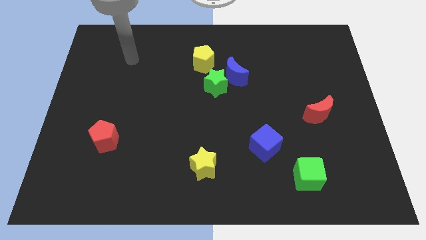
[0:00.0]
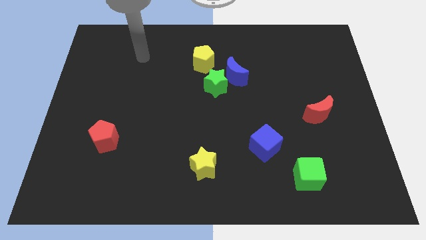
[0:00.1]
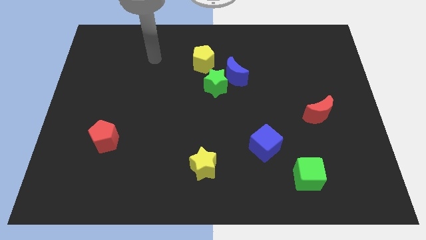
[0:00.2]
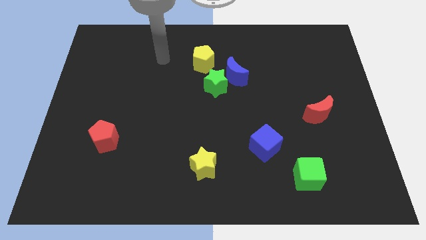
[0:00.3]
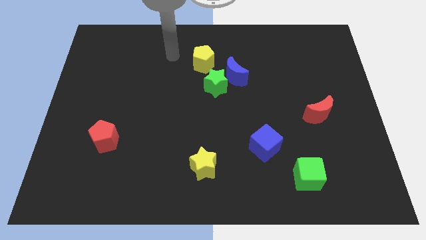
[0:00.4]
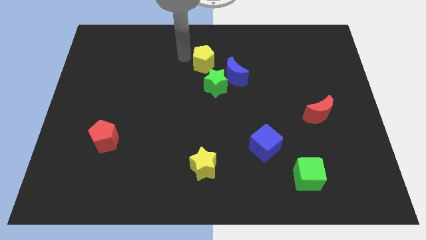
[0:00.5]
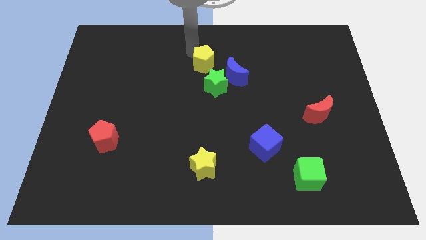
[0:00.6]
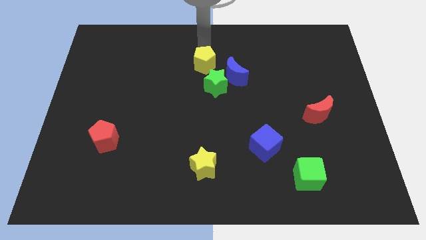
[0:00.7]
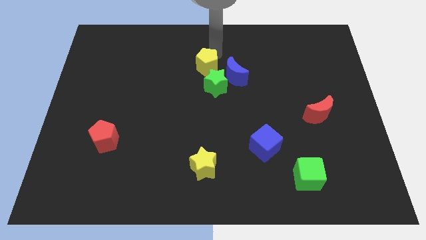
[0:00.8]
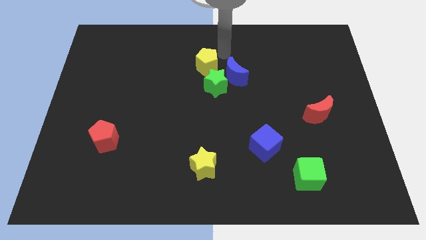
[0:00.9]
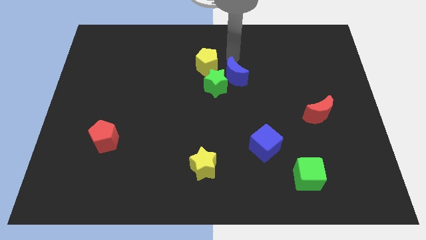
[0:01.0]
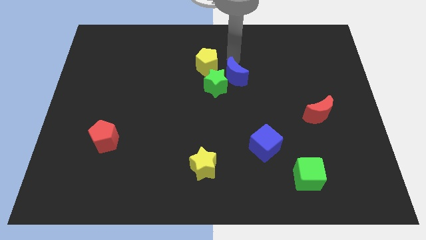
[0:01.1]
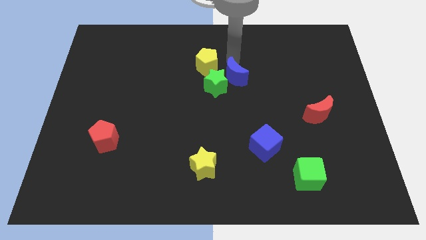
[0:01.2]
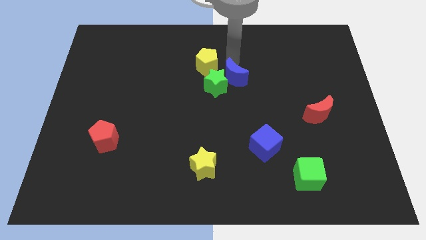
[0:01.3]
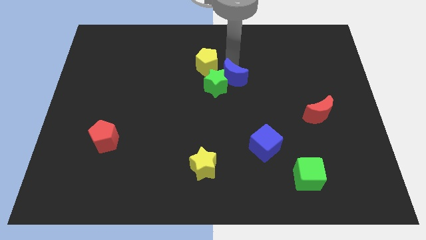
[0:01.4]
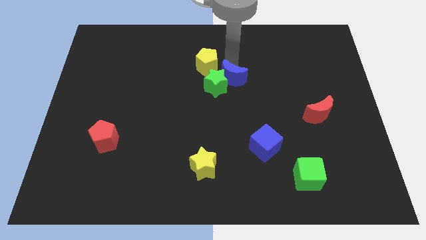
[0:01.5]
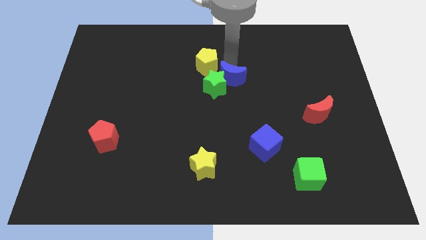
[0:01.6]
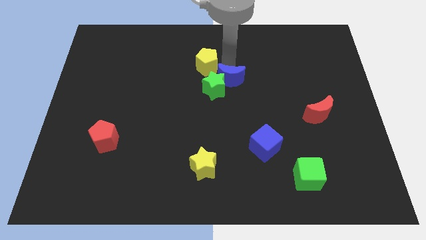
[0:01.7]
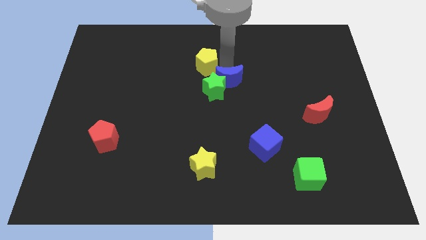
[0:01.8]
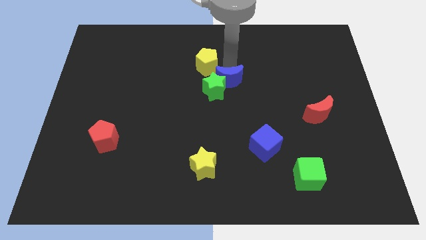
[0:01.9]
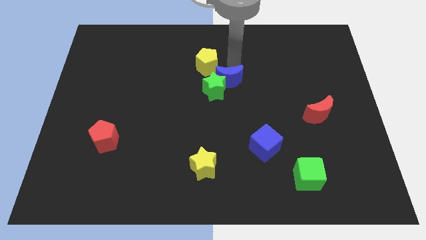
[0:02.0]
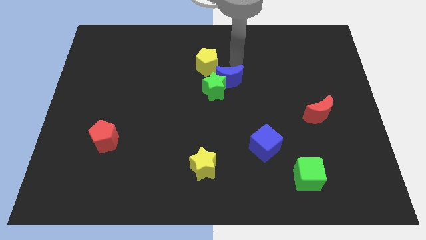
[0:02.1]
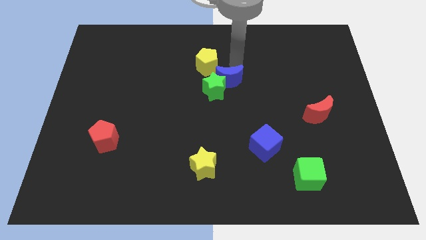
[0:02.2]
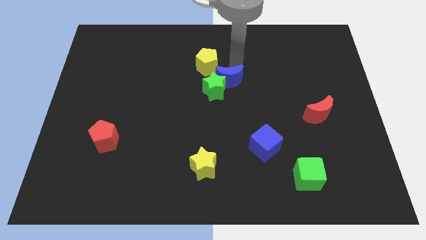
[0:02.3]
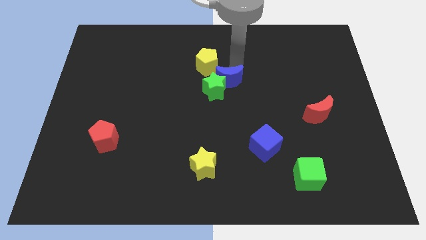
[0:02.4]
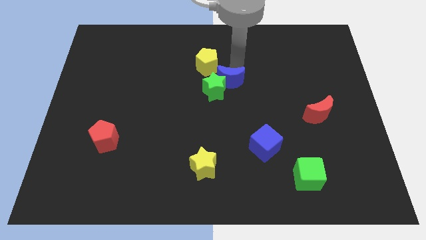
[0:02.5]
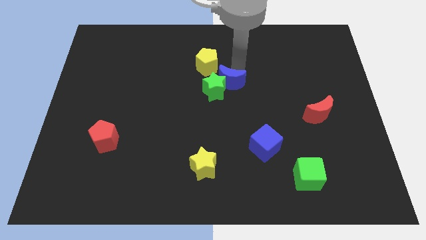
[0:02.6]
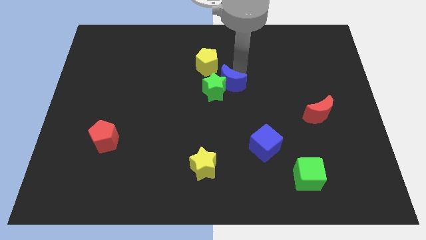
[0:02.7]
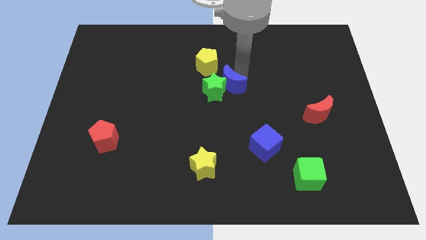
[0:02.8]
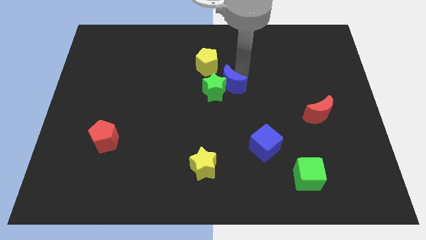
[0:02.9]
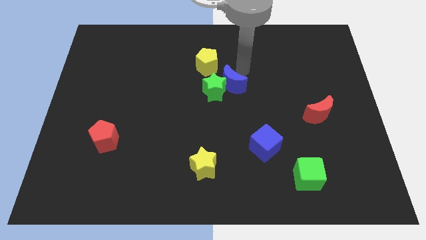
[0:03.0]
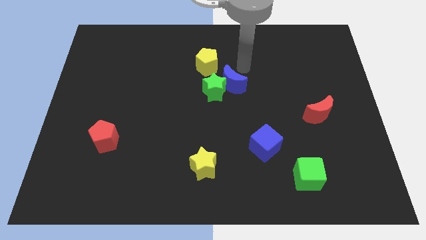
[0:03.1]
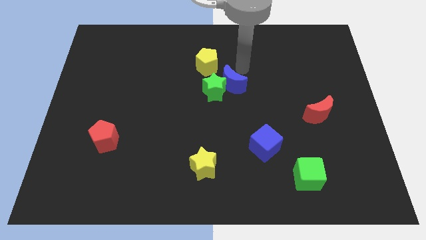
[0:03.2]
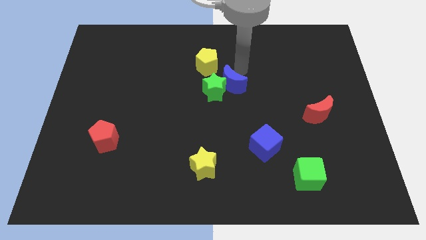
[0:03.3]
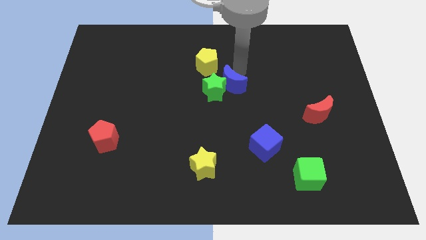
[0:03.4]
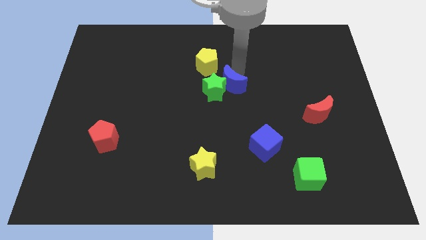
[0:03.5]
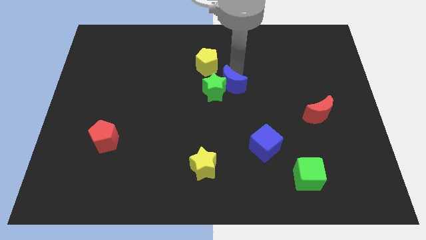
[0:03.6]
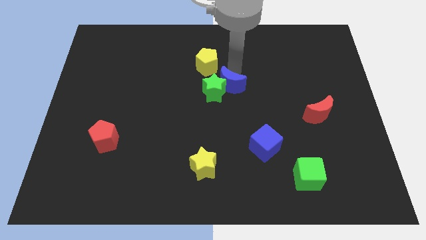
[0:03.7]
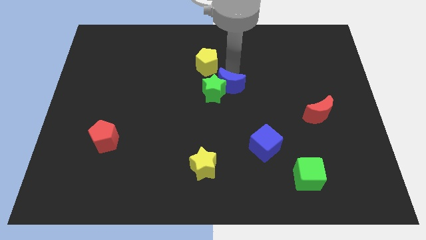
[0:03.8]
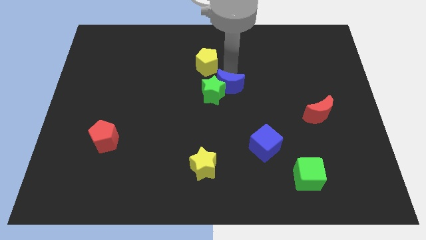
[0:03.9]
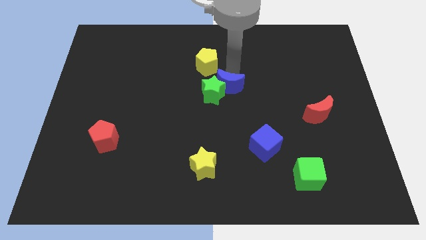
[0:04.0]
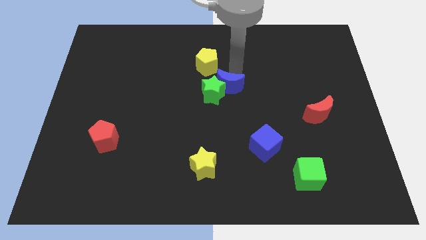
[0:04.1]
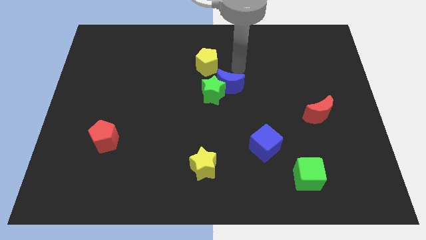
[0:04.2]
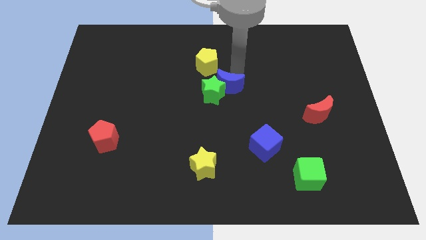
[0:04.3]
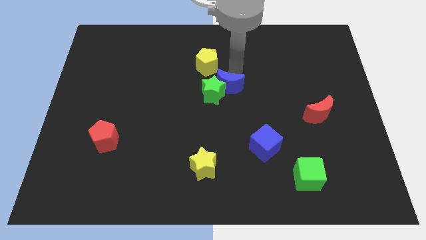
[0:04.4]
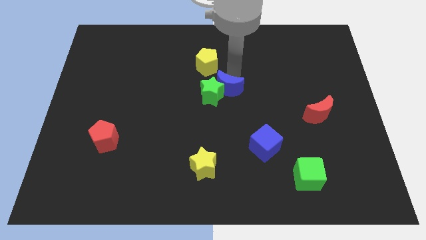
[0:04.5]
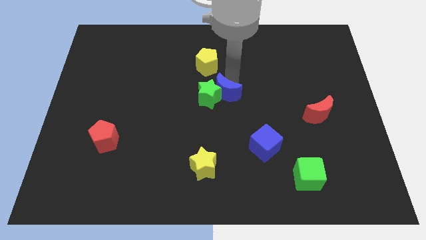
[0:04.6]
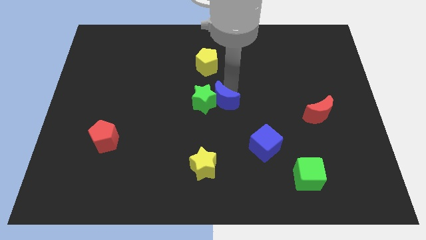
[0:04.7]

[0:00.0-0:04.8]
slightly move the blue moon downwards and then left

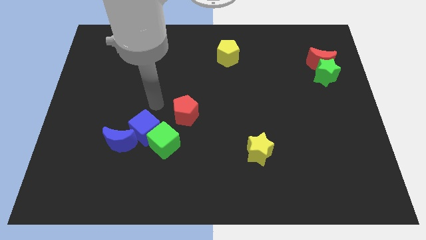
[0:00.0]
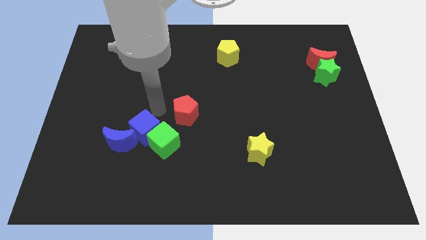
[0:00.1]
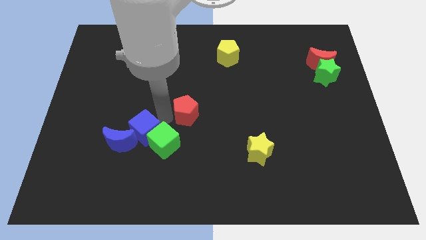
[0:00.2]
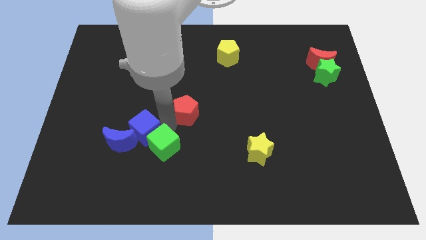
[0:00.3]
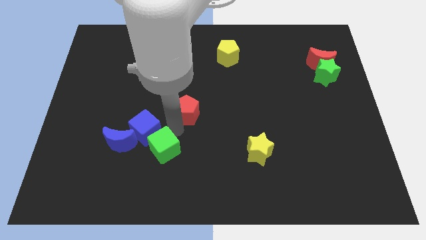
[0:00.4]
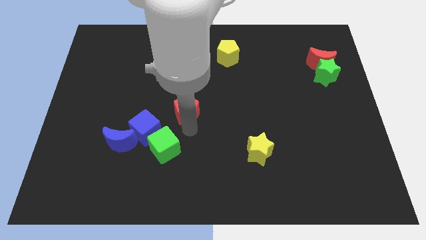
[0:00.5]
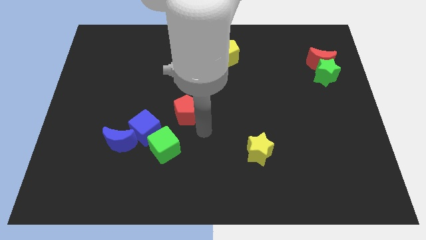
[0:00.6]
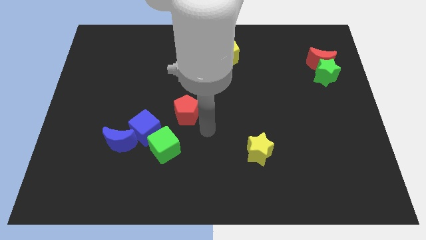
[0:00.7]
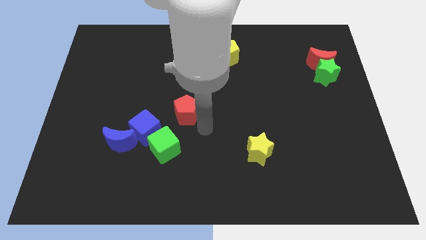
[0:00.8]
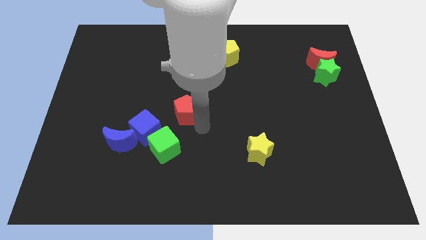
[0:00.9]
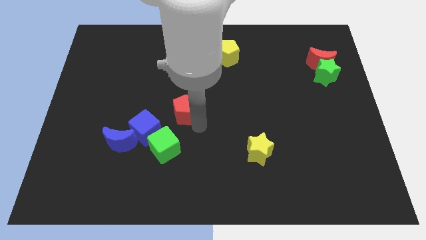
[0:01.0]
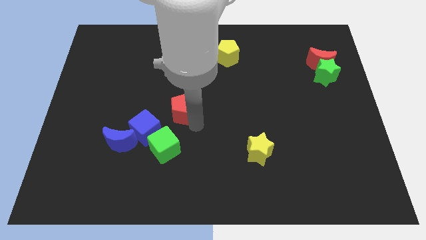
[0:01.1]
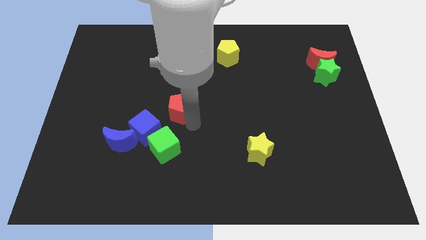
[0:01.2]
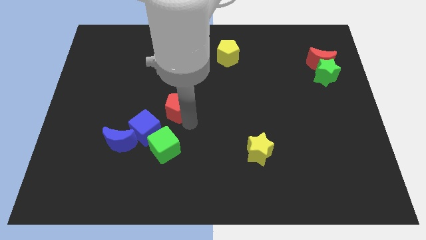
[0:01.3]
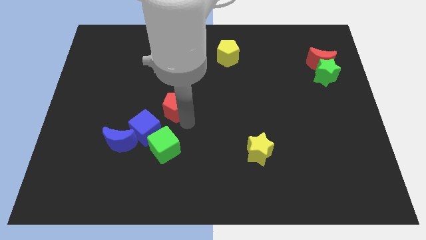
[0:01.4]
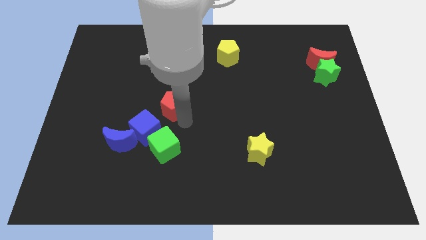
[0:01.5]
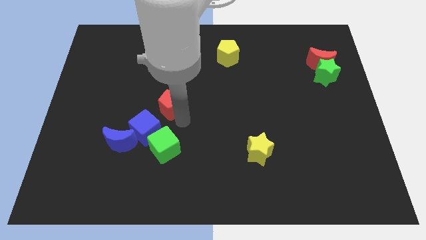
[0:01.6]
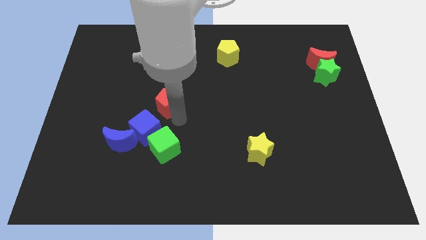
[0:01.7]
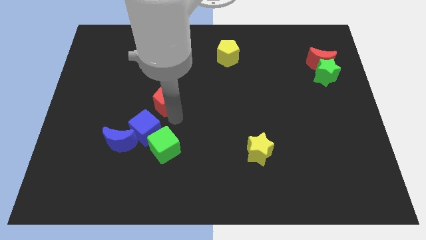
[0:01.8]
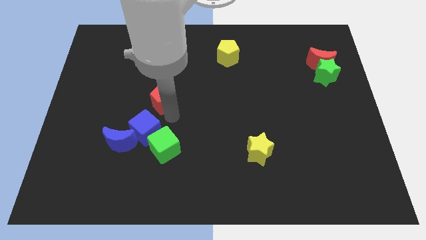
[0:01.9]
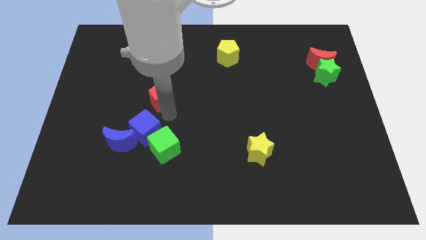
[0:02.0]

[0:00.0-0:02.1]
move the red pentagon a bit upwards and then to the left

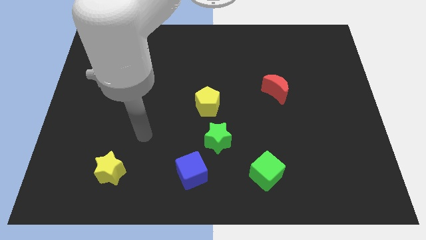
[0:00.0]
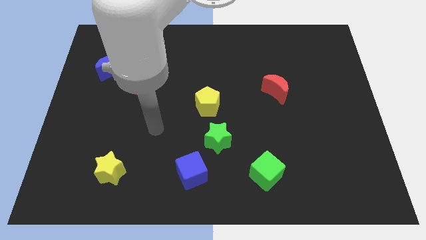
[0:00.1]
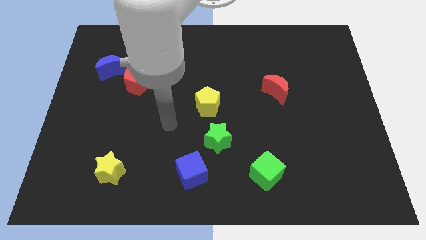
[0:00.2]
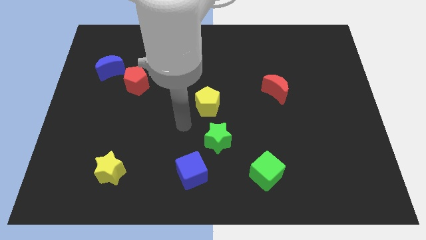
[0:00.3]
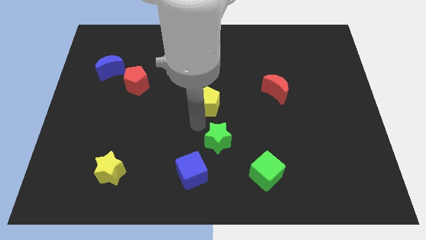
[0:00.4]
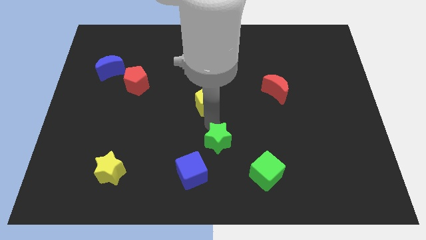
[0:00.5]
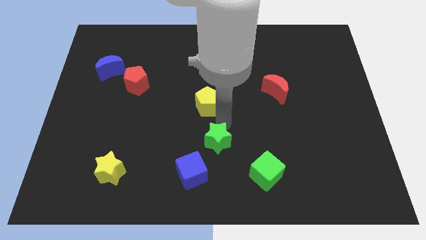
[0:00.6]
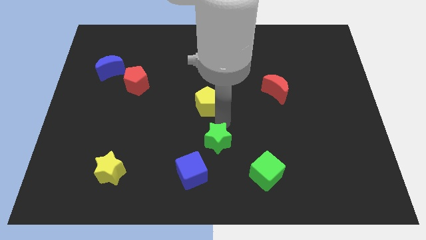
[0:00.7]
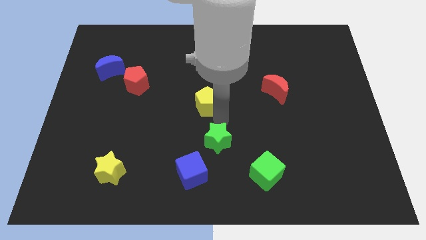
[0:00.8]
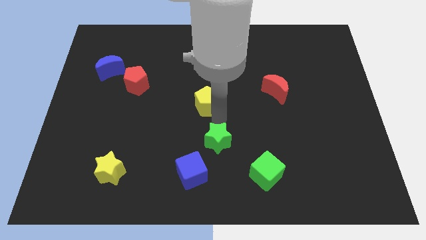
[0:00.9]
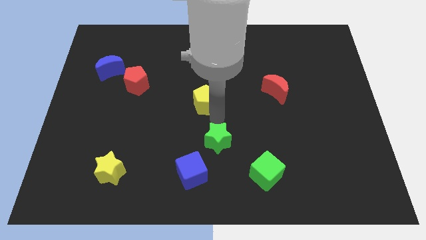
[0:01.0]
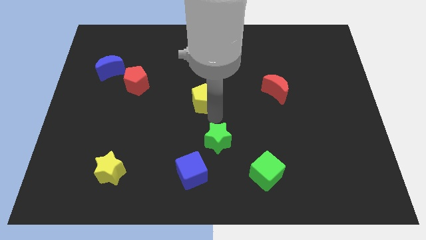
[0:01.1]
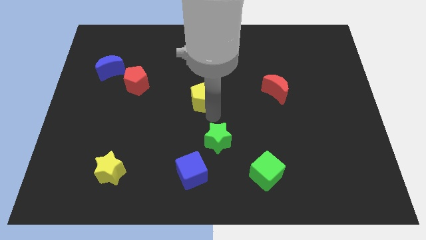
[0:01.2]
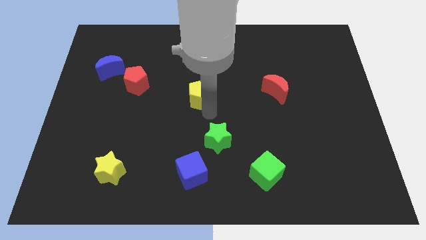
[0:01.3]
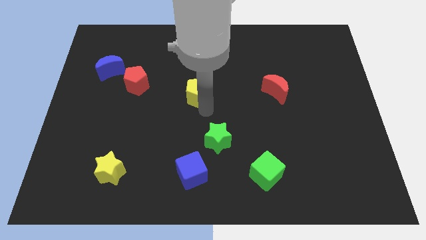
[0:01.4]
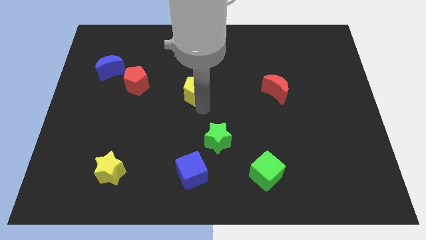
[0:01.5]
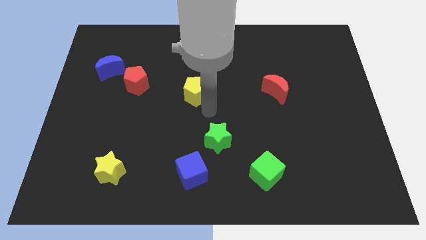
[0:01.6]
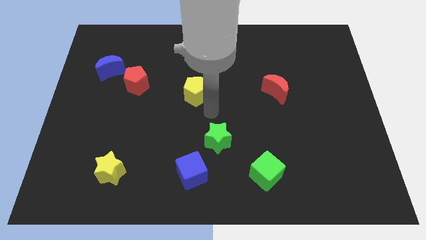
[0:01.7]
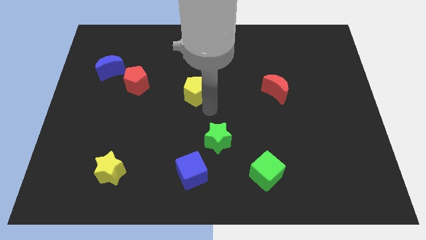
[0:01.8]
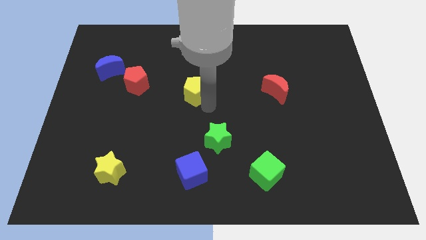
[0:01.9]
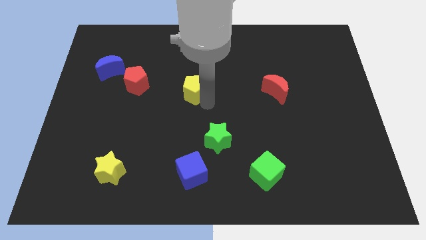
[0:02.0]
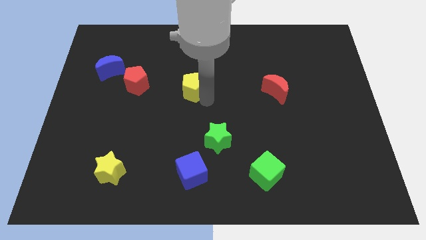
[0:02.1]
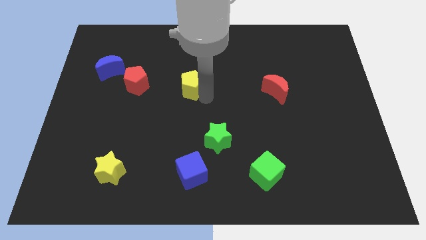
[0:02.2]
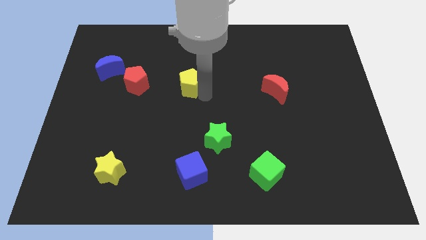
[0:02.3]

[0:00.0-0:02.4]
push the yellow pentagon up and to the left diagonally a little bit
